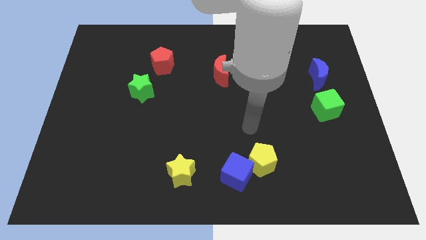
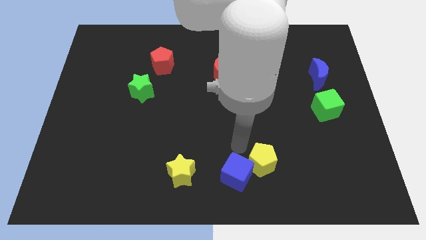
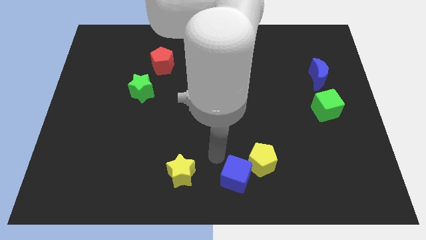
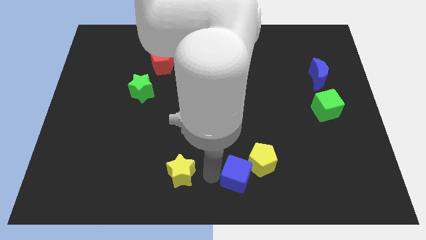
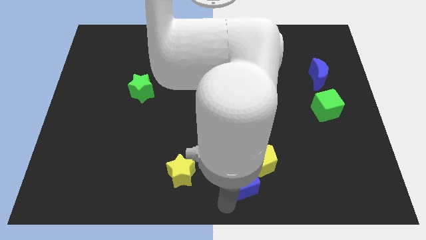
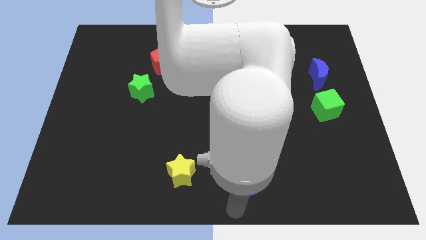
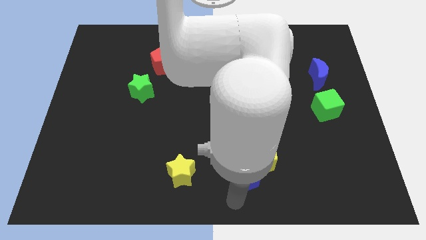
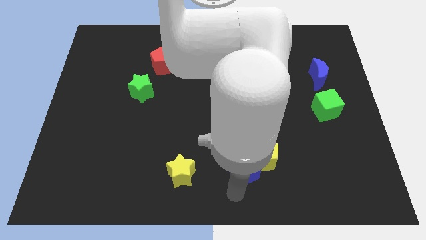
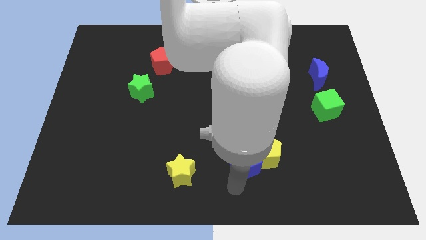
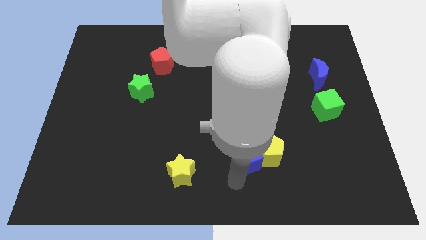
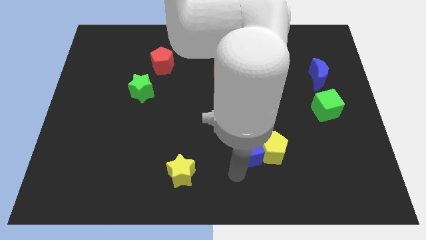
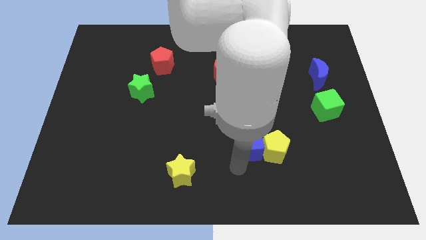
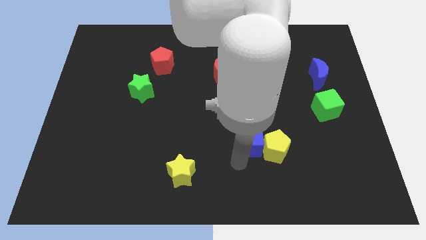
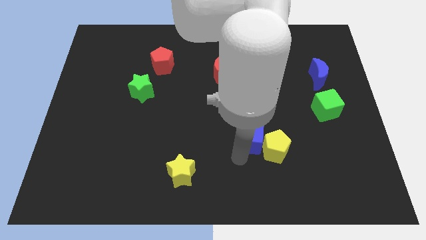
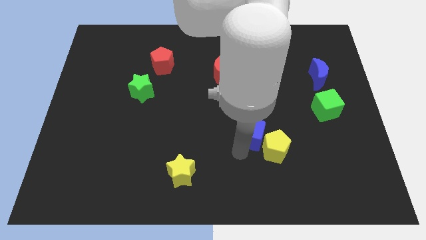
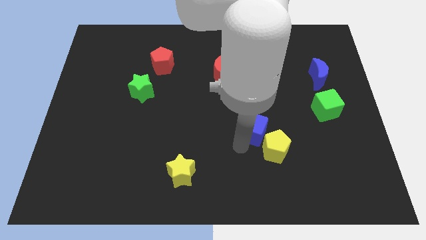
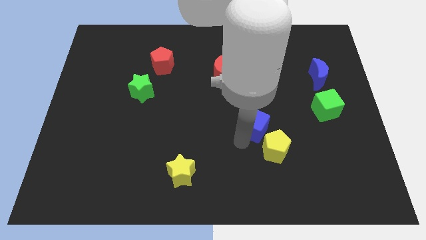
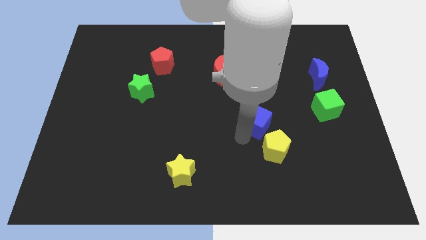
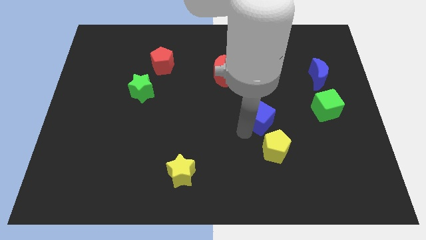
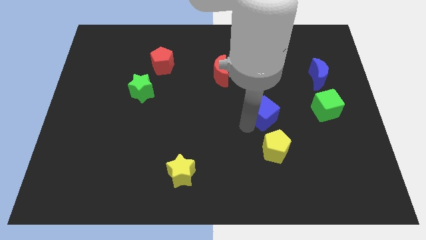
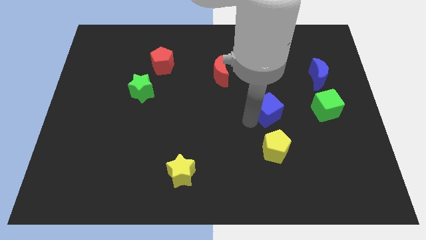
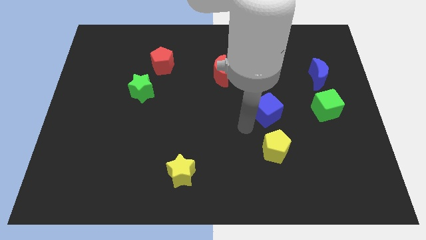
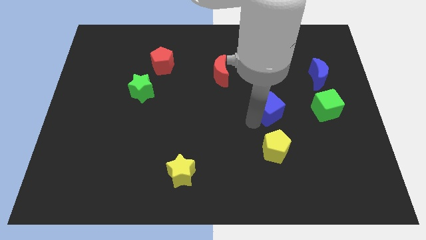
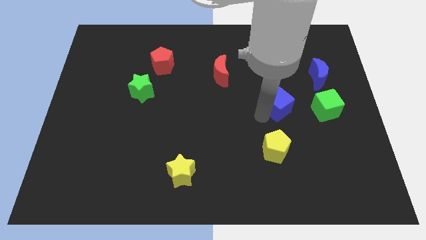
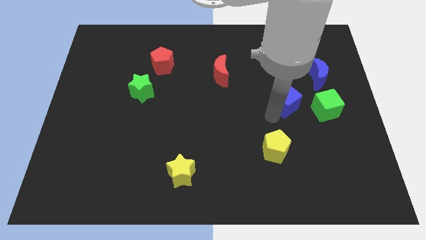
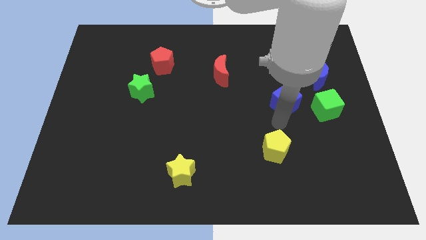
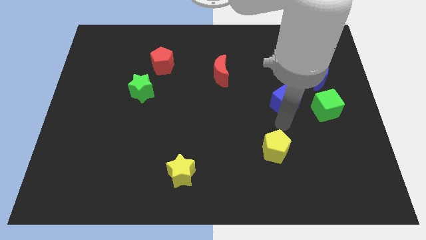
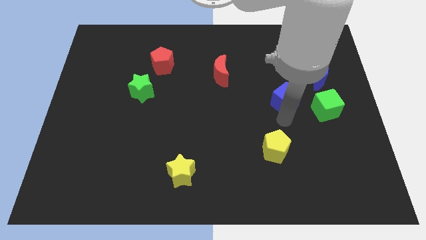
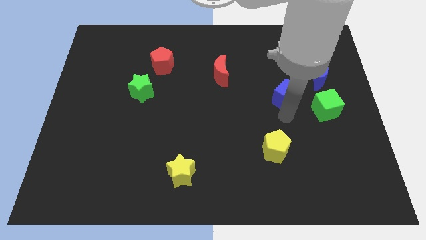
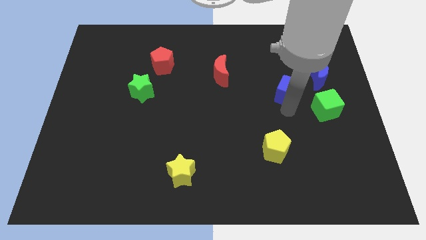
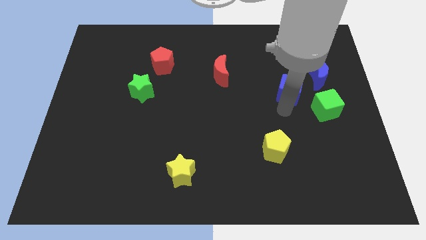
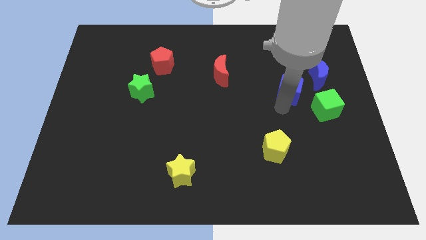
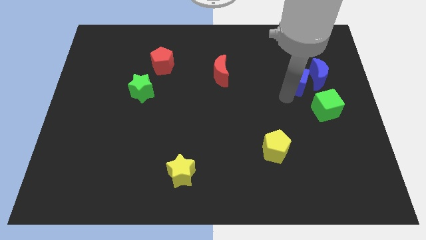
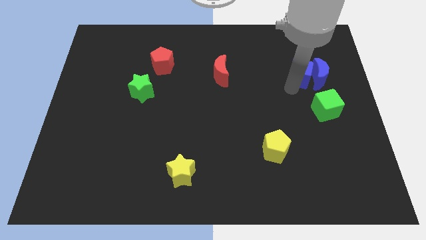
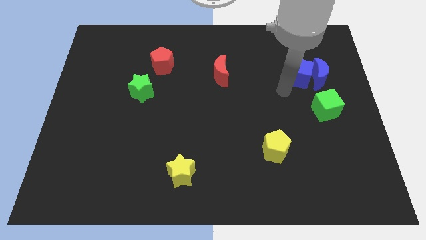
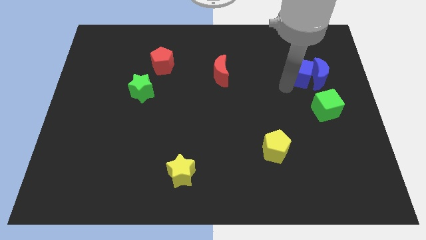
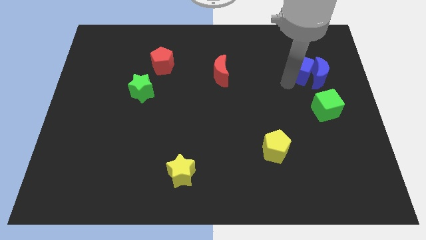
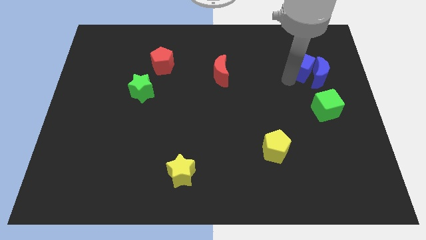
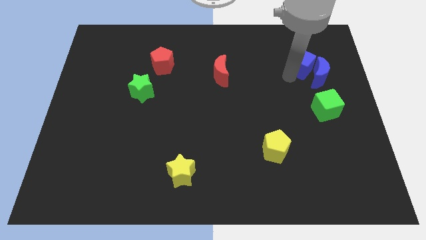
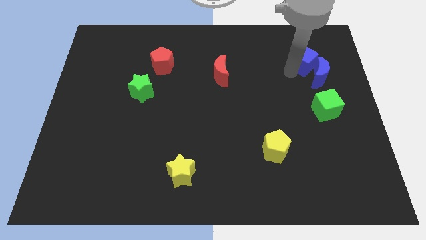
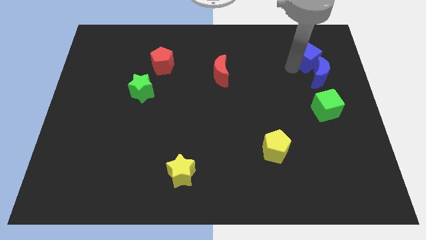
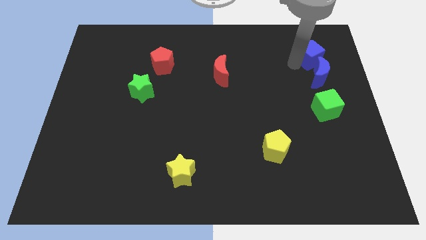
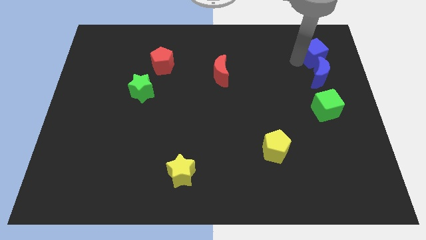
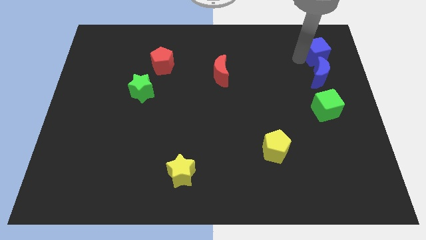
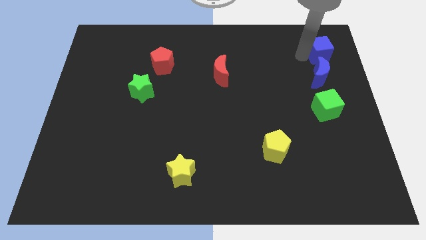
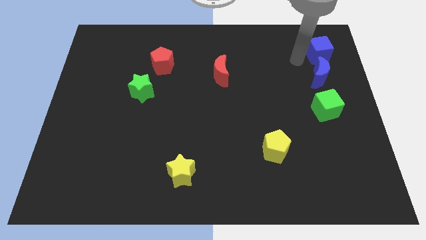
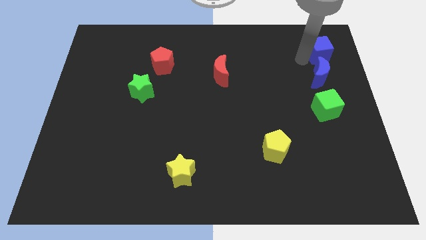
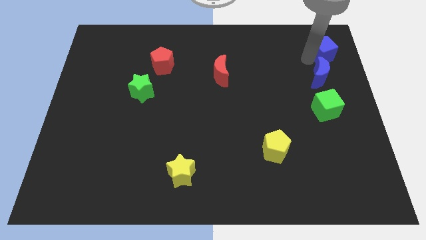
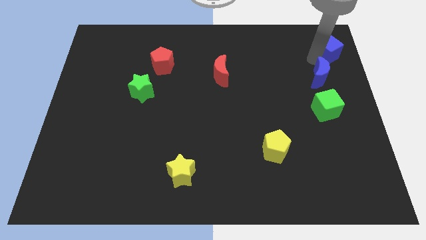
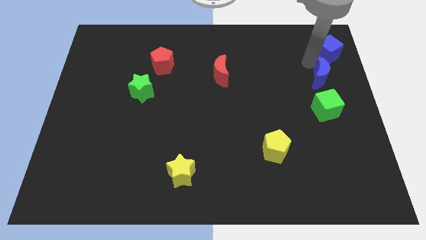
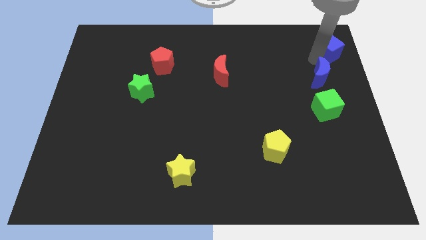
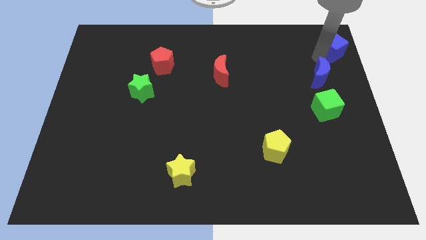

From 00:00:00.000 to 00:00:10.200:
move the blue cube to the upper right corner
